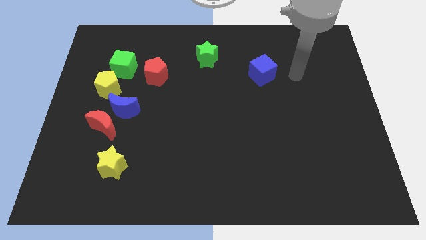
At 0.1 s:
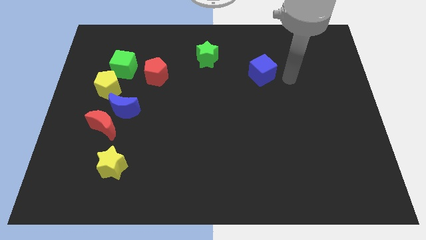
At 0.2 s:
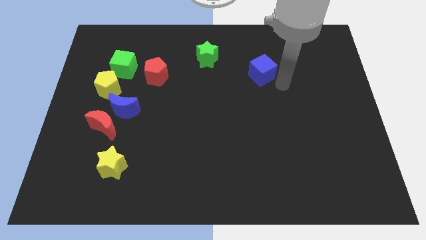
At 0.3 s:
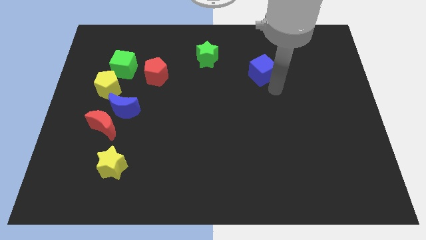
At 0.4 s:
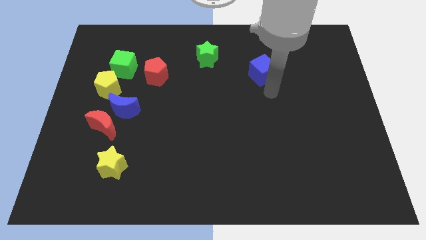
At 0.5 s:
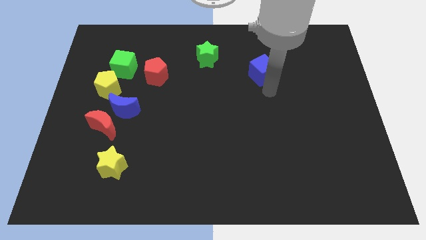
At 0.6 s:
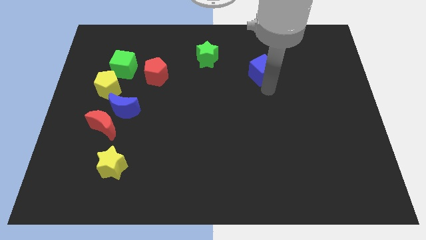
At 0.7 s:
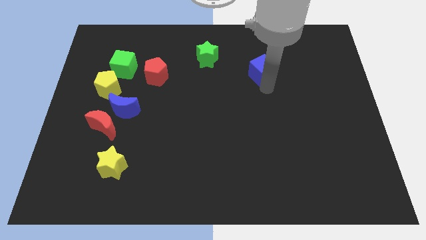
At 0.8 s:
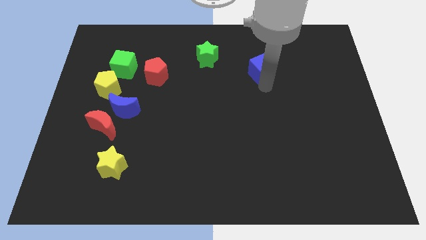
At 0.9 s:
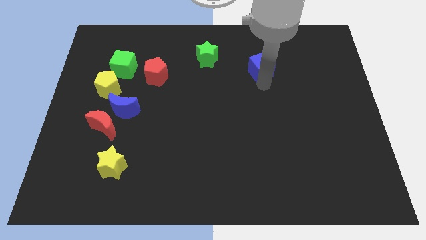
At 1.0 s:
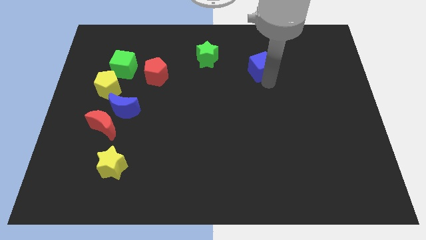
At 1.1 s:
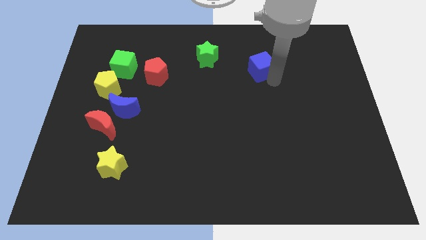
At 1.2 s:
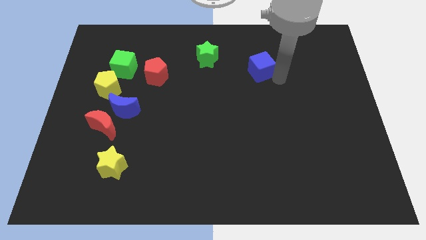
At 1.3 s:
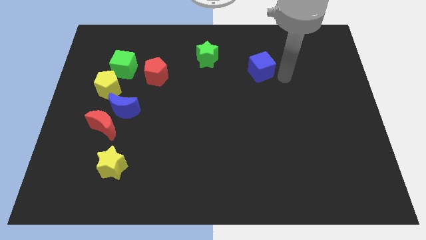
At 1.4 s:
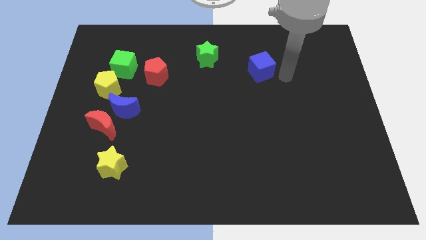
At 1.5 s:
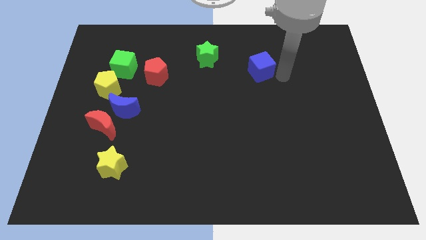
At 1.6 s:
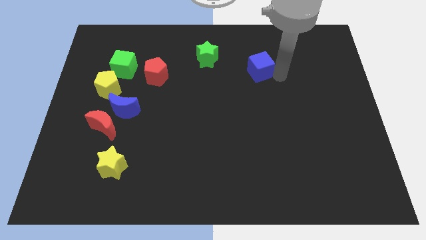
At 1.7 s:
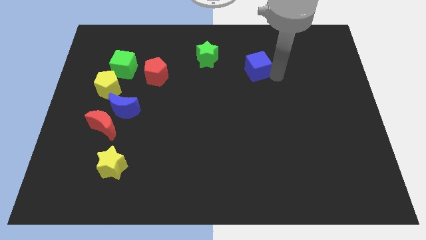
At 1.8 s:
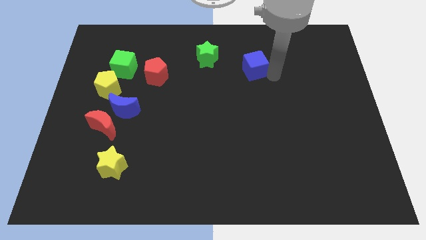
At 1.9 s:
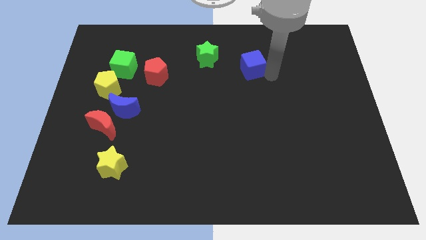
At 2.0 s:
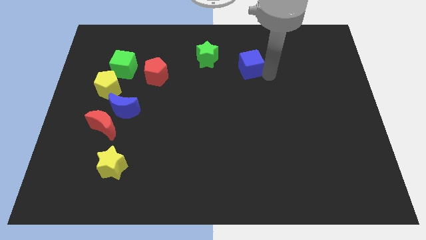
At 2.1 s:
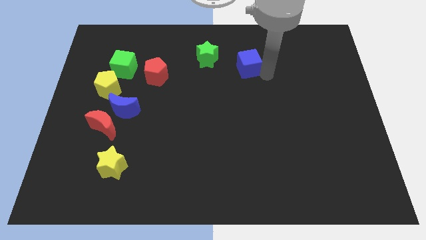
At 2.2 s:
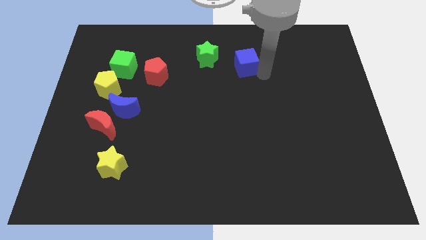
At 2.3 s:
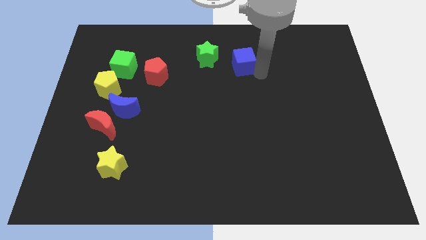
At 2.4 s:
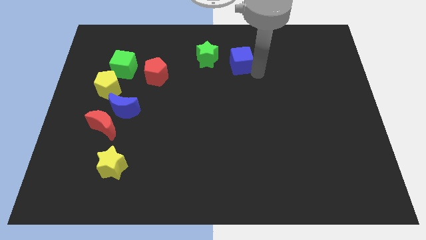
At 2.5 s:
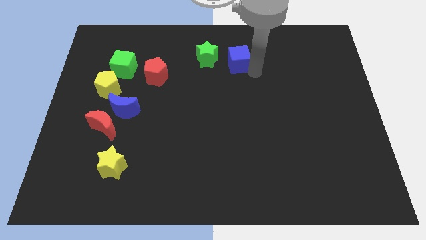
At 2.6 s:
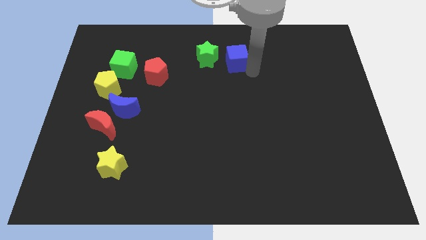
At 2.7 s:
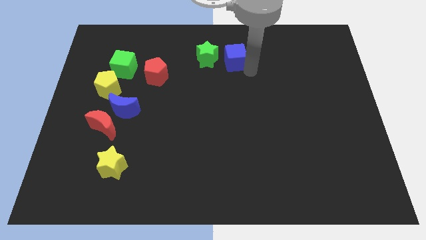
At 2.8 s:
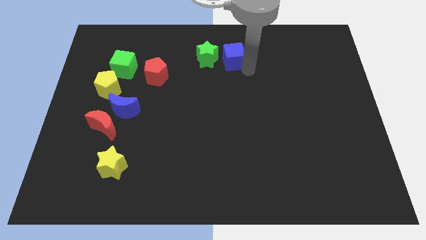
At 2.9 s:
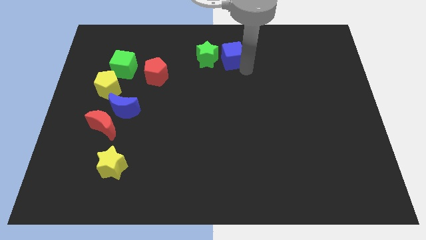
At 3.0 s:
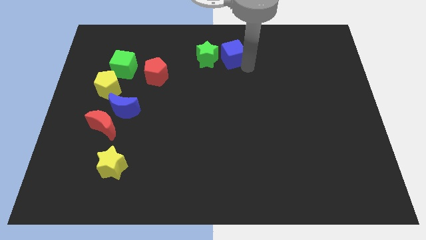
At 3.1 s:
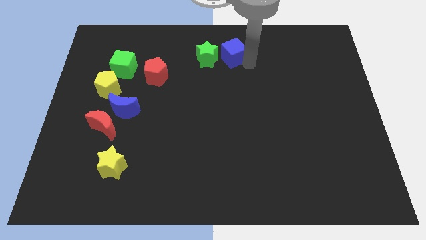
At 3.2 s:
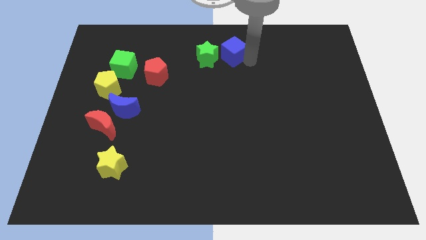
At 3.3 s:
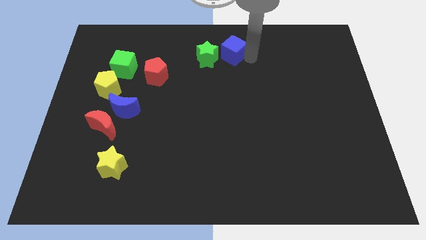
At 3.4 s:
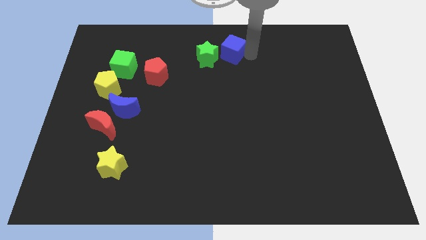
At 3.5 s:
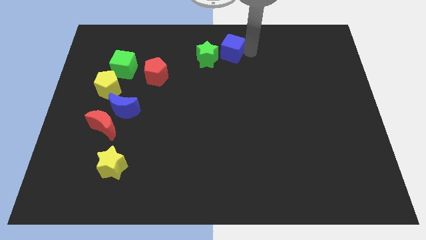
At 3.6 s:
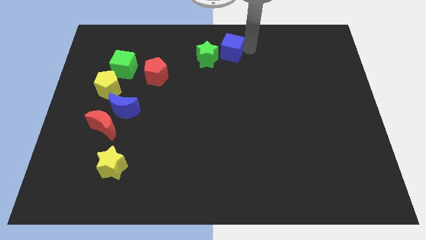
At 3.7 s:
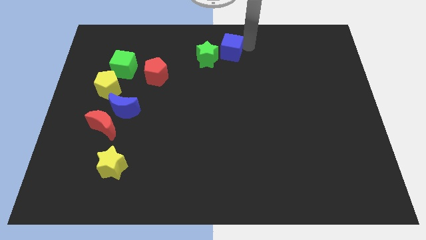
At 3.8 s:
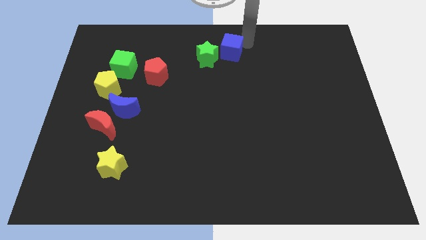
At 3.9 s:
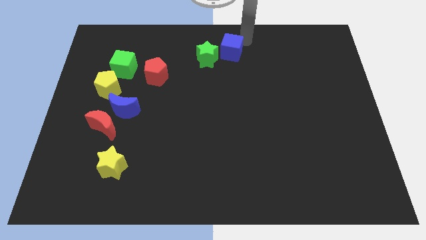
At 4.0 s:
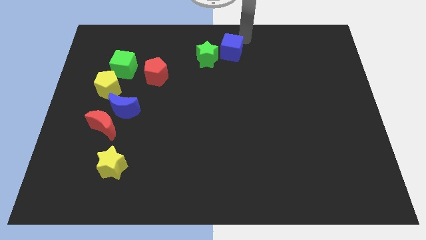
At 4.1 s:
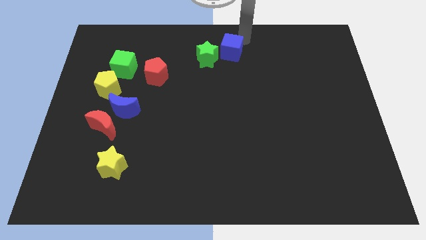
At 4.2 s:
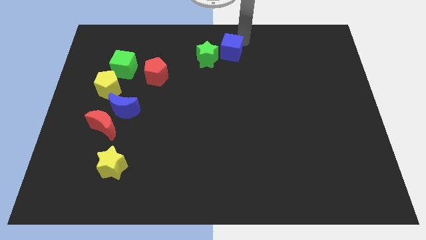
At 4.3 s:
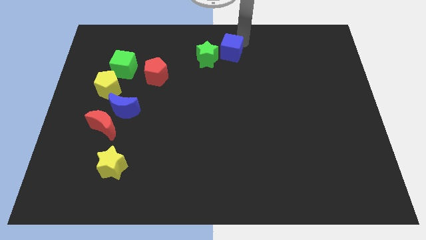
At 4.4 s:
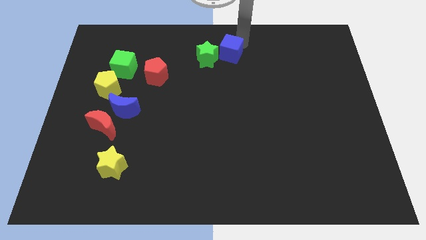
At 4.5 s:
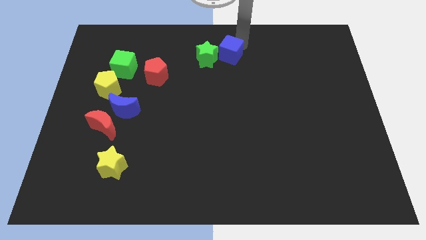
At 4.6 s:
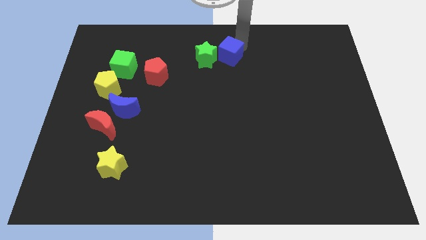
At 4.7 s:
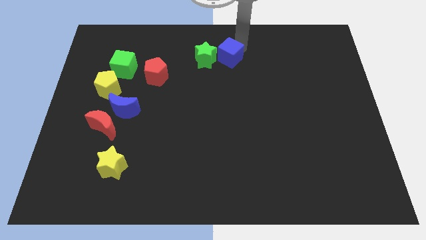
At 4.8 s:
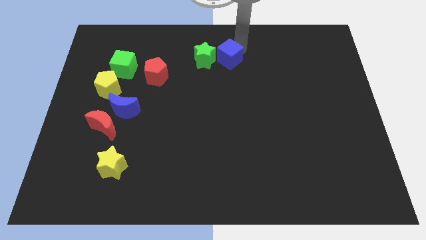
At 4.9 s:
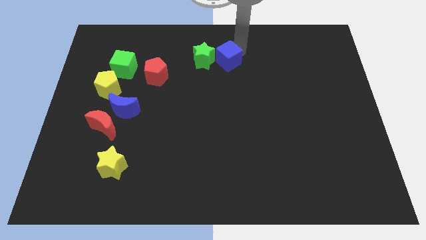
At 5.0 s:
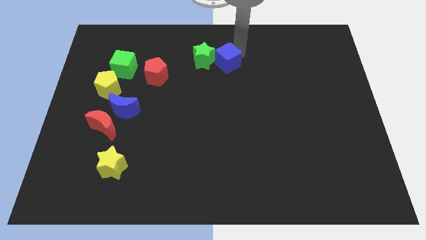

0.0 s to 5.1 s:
put the blue cube towards the green star
